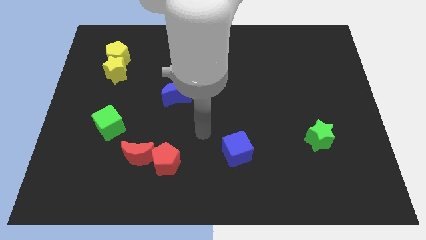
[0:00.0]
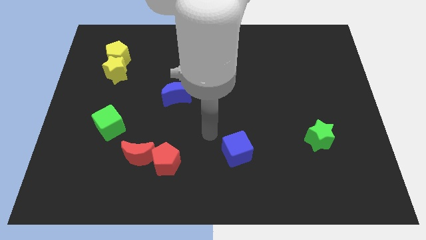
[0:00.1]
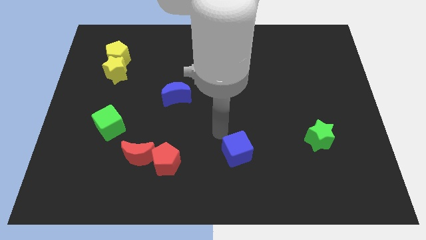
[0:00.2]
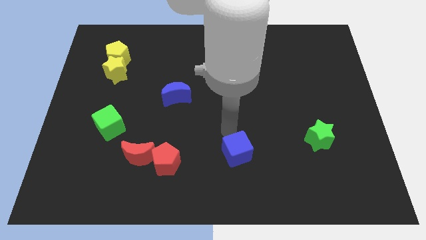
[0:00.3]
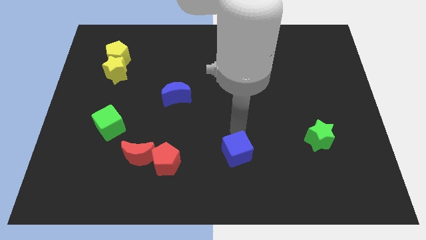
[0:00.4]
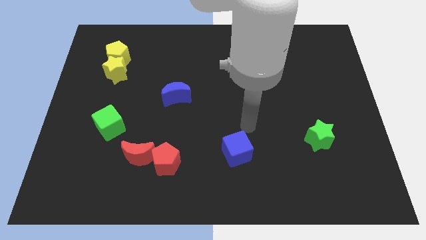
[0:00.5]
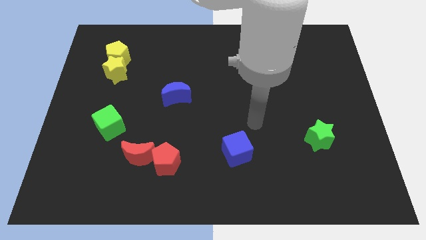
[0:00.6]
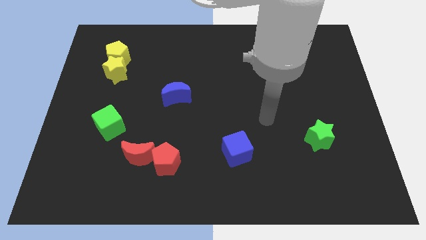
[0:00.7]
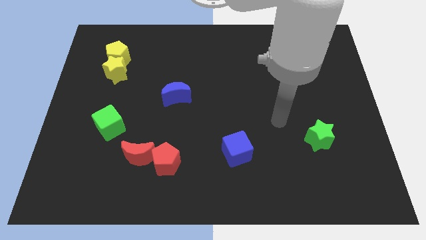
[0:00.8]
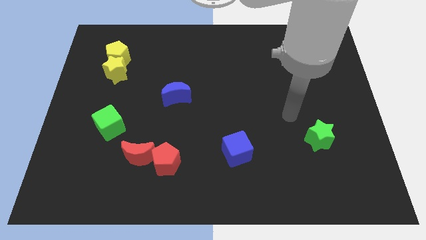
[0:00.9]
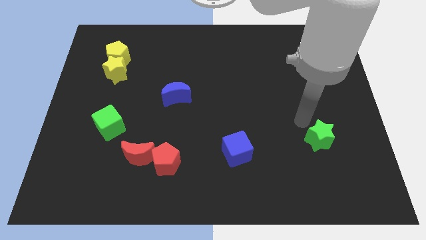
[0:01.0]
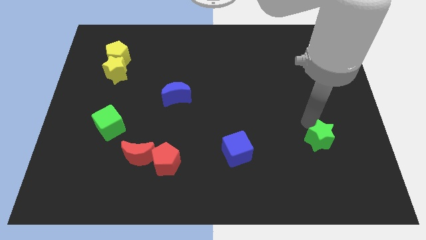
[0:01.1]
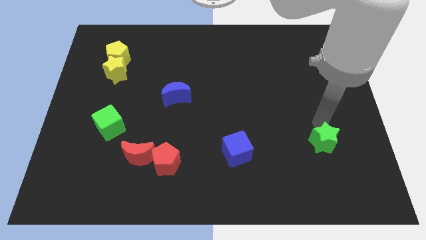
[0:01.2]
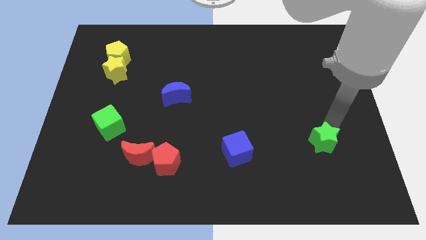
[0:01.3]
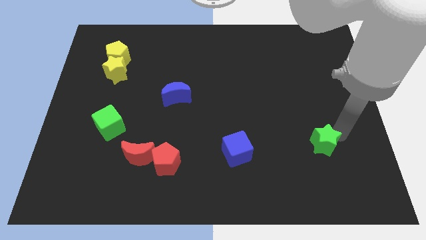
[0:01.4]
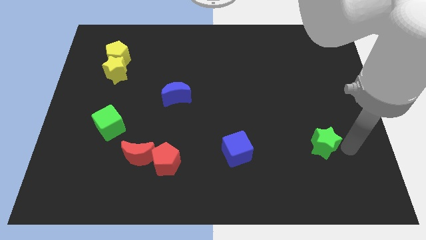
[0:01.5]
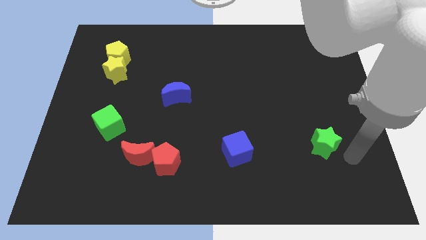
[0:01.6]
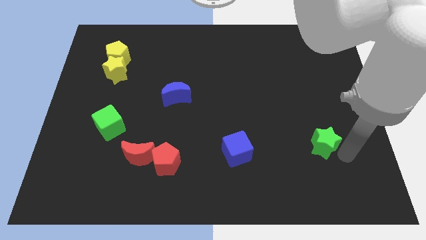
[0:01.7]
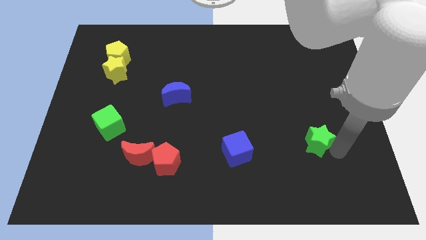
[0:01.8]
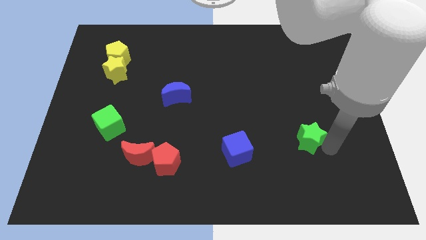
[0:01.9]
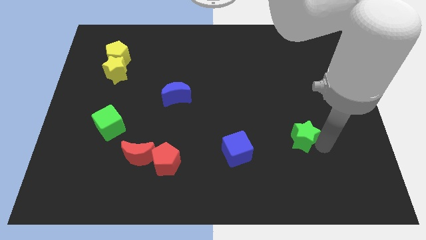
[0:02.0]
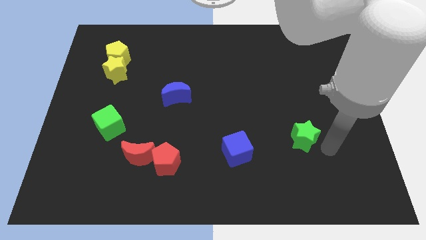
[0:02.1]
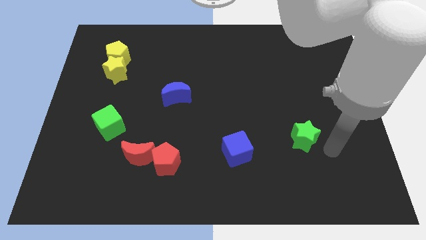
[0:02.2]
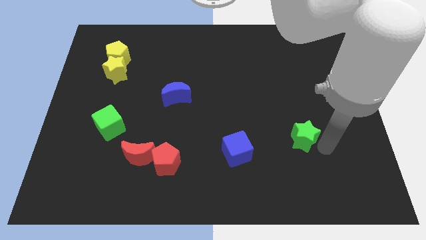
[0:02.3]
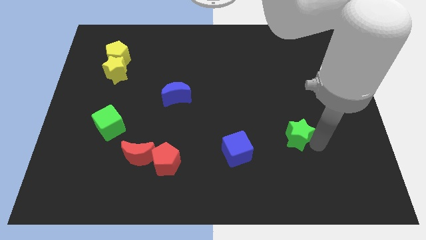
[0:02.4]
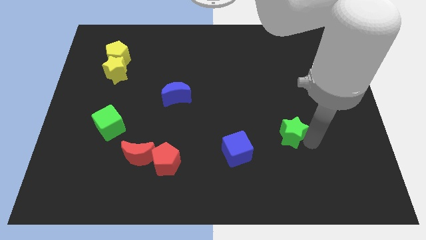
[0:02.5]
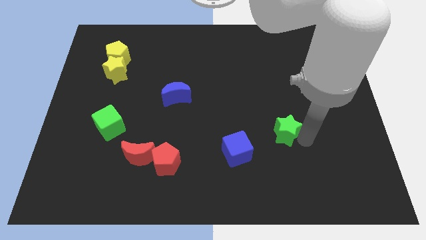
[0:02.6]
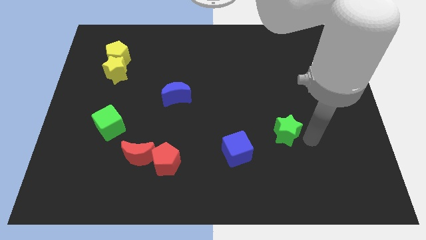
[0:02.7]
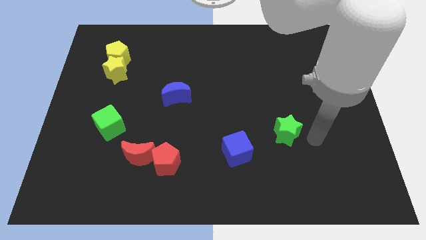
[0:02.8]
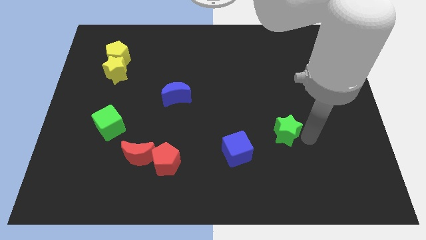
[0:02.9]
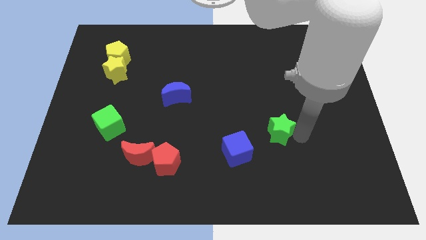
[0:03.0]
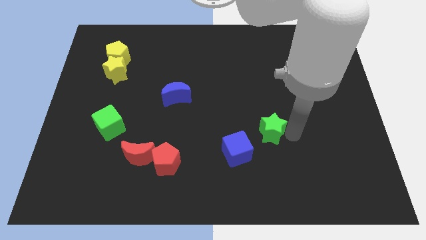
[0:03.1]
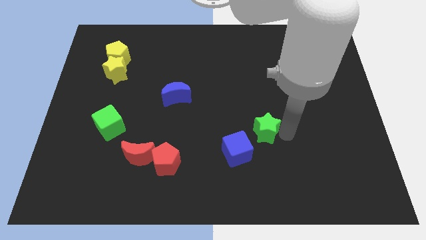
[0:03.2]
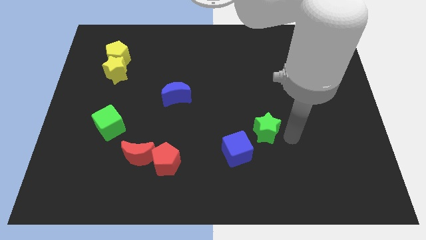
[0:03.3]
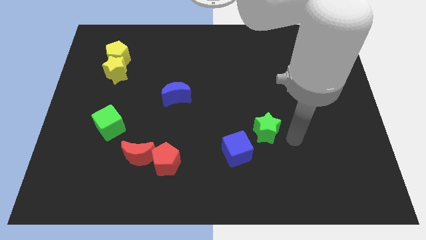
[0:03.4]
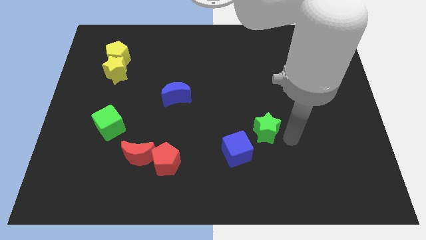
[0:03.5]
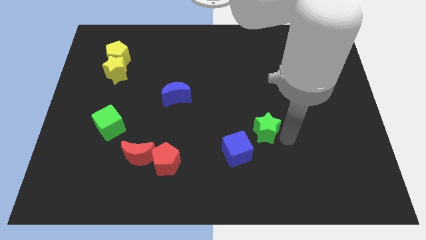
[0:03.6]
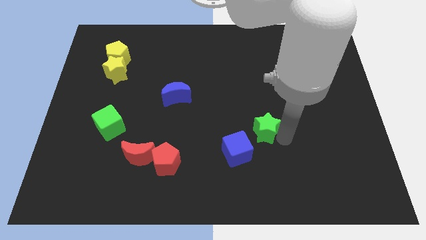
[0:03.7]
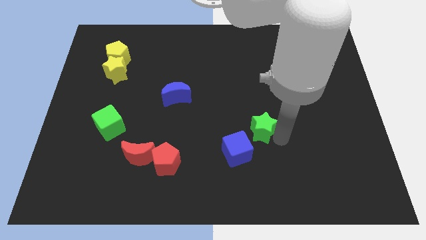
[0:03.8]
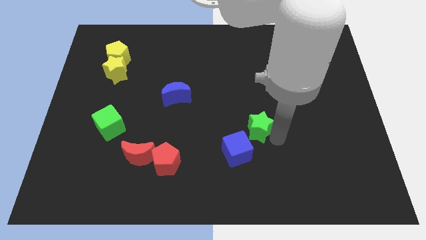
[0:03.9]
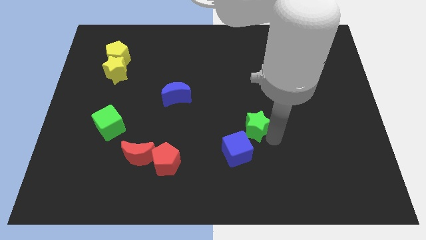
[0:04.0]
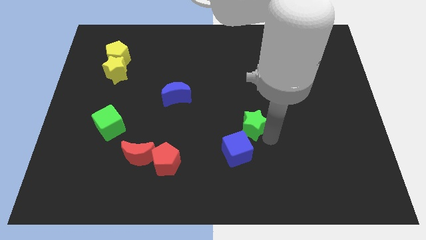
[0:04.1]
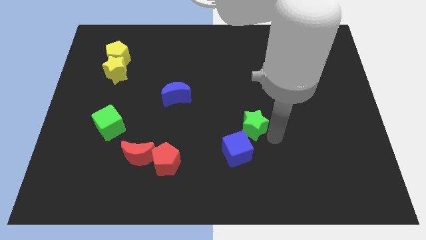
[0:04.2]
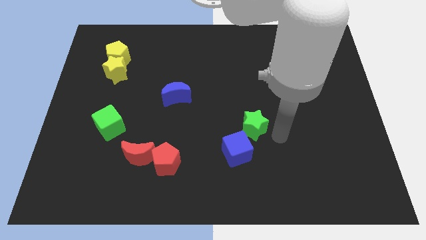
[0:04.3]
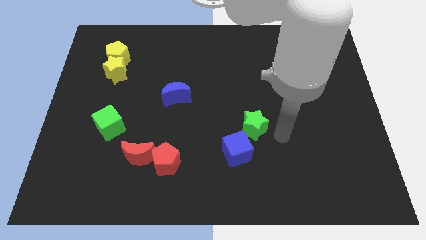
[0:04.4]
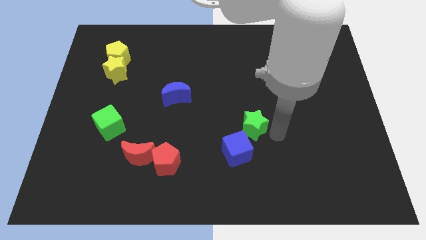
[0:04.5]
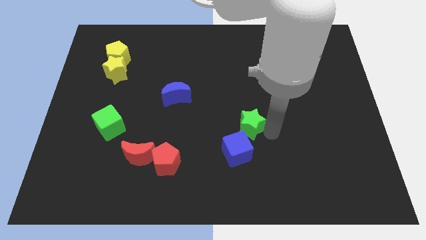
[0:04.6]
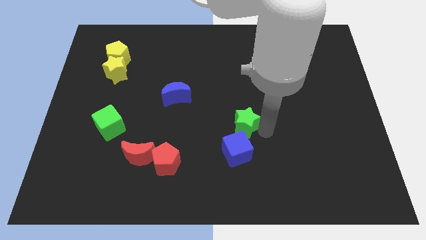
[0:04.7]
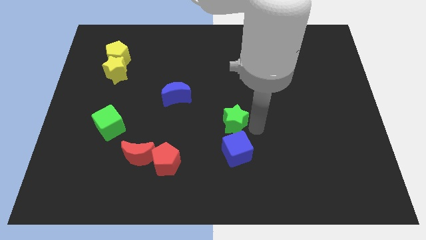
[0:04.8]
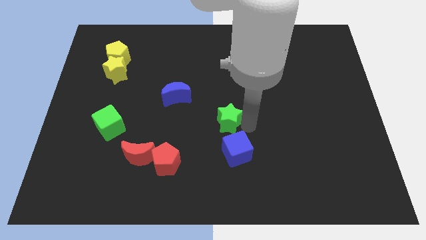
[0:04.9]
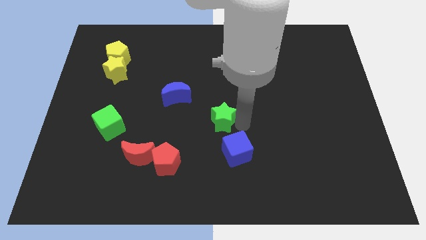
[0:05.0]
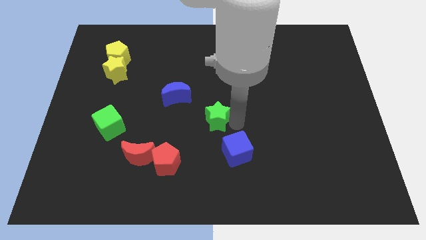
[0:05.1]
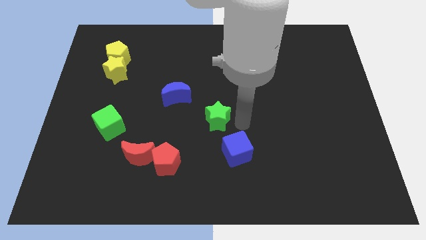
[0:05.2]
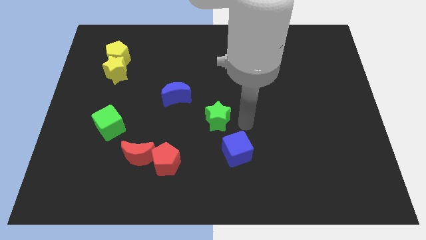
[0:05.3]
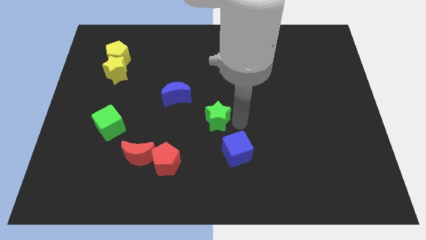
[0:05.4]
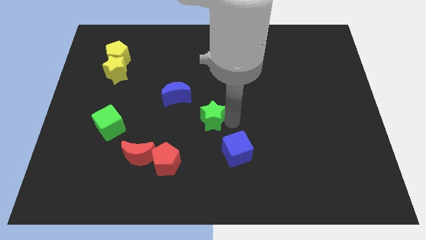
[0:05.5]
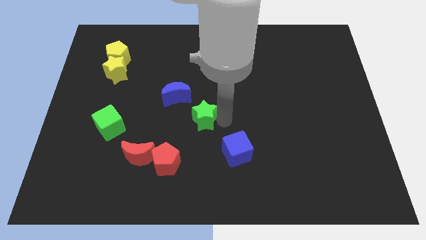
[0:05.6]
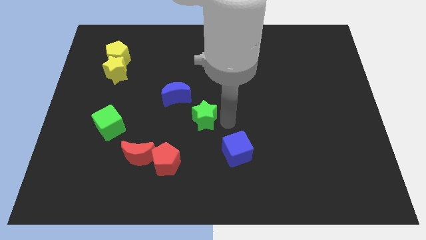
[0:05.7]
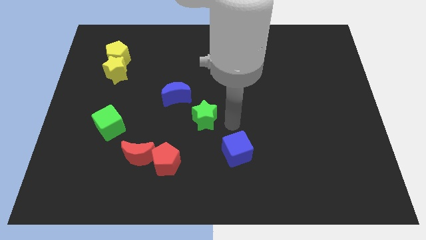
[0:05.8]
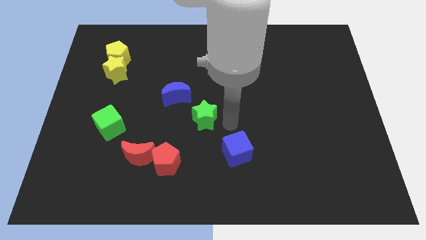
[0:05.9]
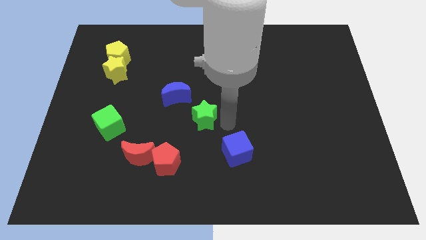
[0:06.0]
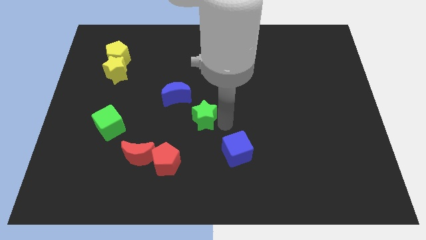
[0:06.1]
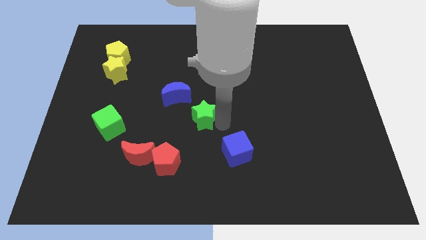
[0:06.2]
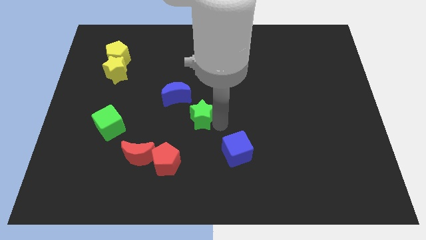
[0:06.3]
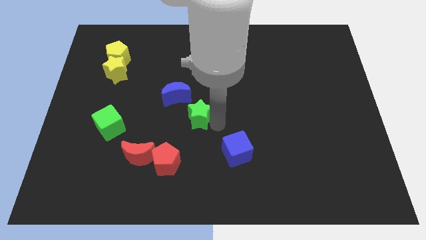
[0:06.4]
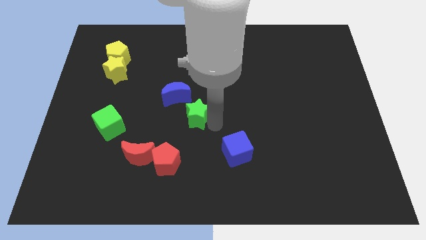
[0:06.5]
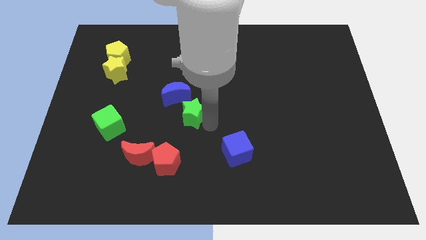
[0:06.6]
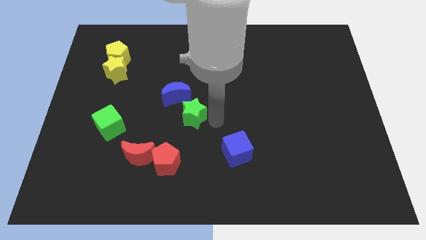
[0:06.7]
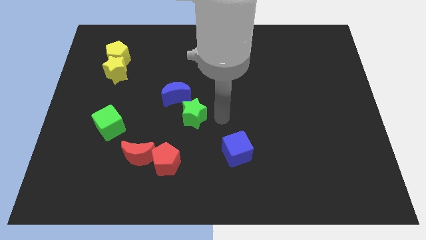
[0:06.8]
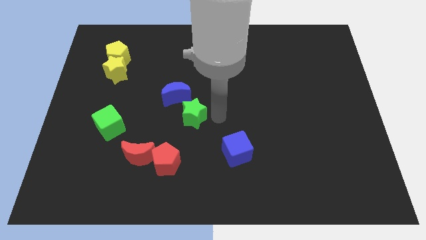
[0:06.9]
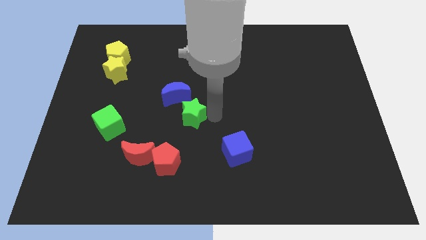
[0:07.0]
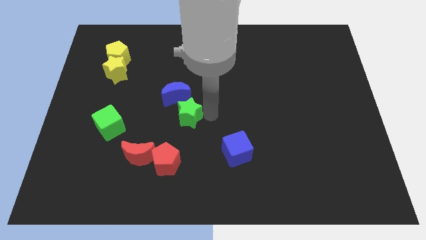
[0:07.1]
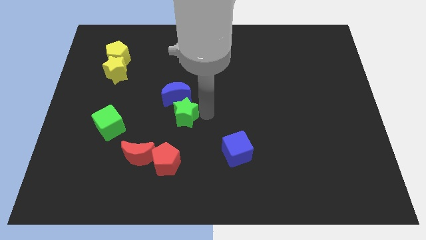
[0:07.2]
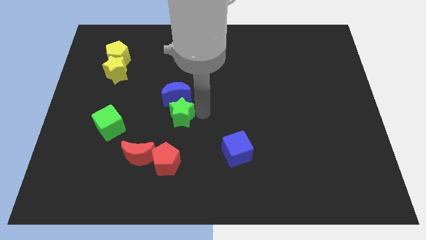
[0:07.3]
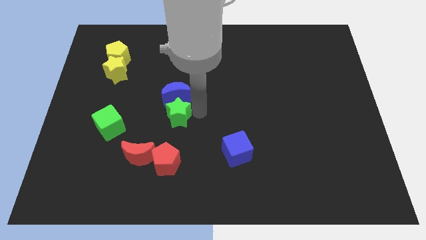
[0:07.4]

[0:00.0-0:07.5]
put the green star to the bottom left side of the blue moon
